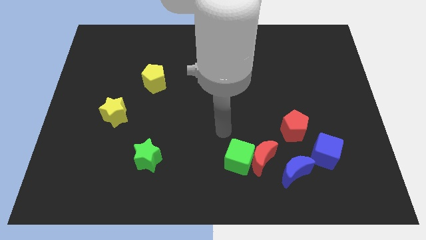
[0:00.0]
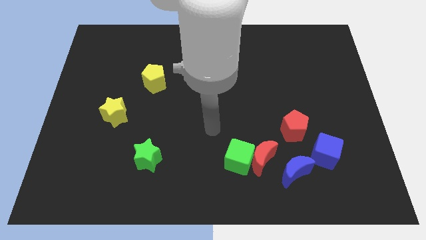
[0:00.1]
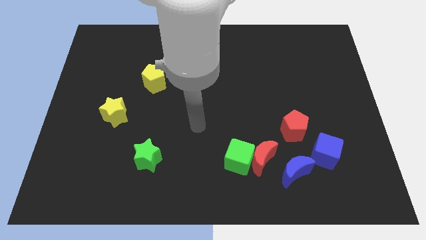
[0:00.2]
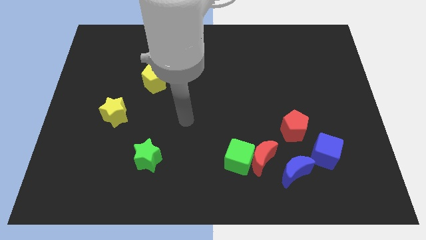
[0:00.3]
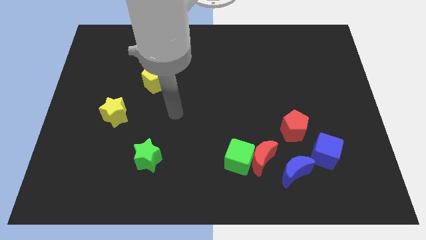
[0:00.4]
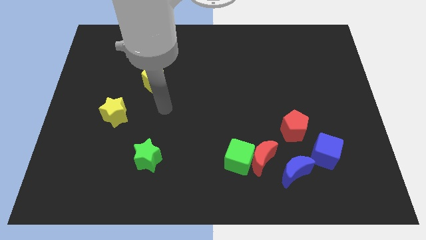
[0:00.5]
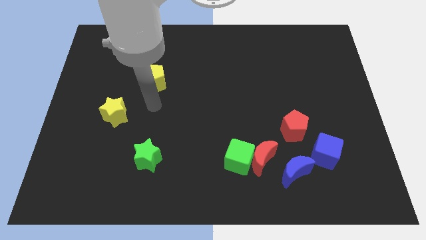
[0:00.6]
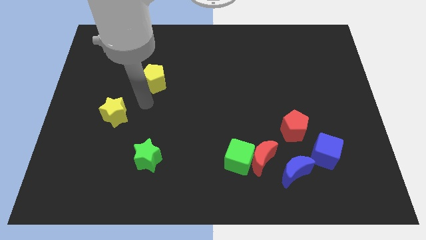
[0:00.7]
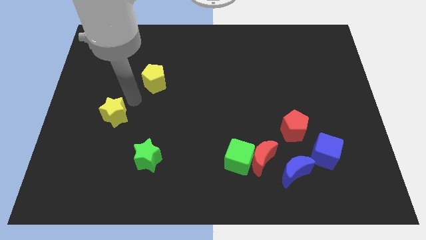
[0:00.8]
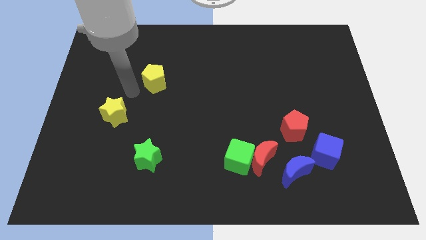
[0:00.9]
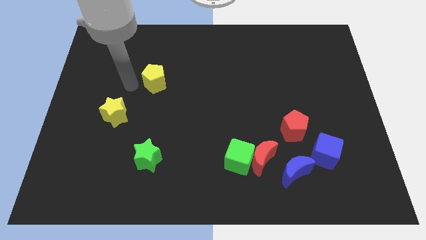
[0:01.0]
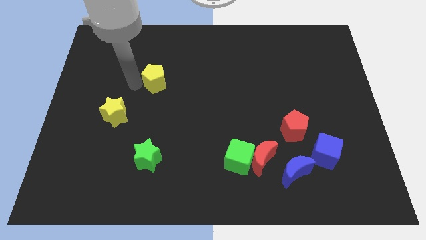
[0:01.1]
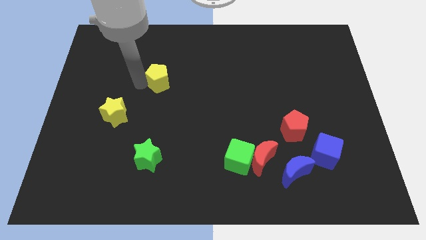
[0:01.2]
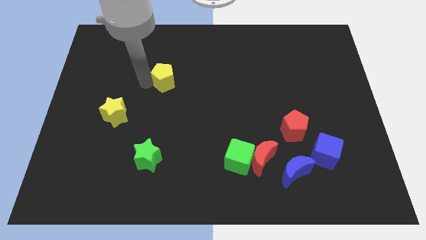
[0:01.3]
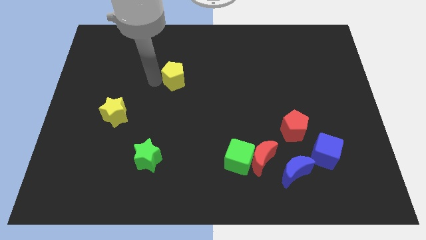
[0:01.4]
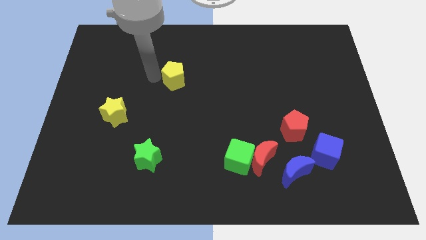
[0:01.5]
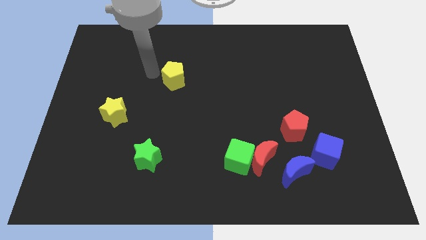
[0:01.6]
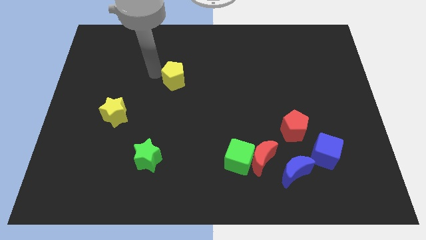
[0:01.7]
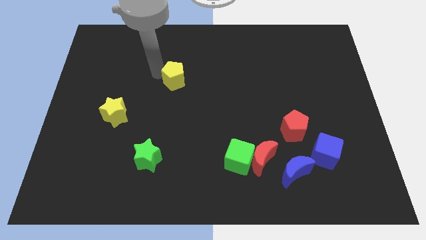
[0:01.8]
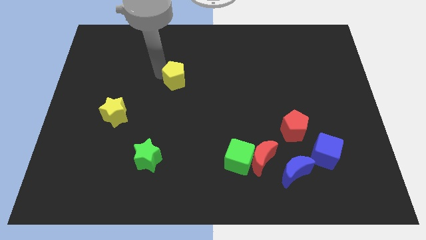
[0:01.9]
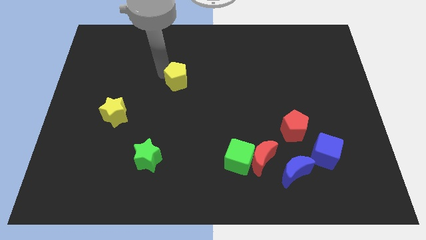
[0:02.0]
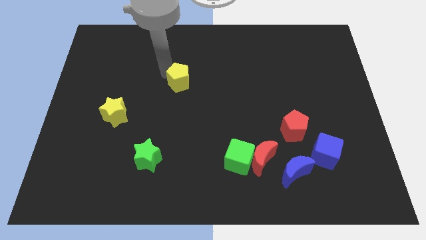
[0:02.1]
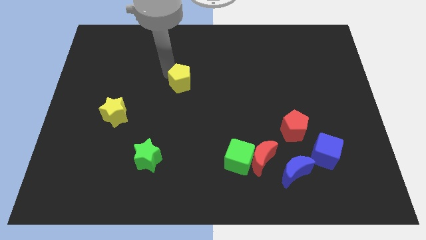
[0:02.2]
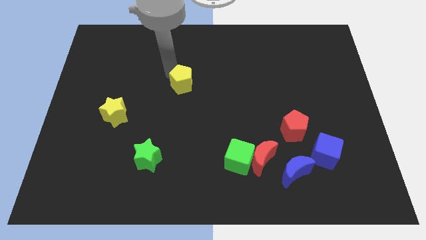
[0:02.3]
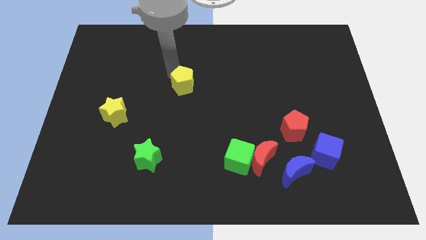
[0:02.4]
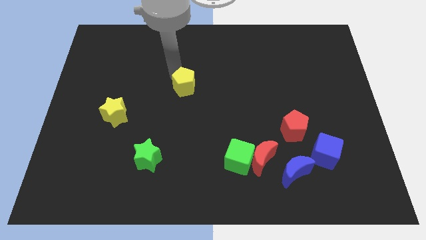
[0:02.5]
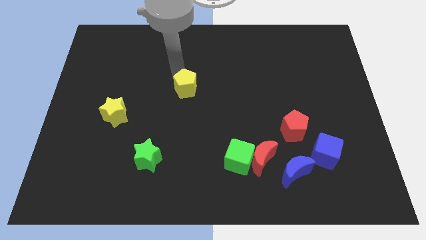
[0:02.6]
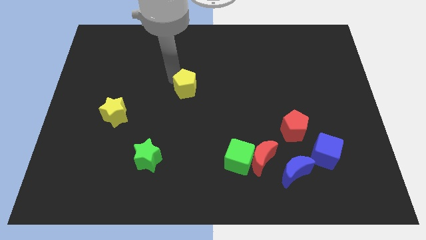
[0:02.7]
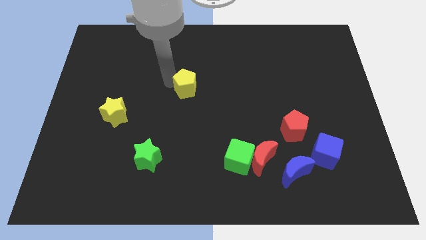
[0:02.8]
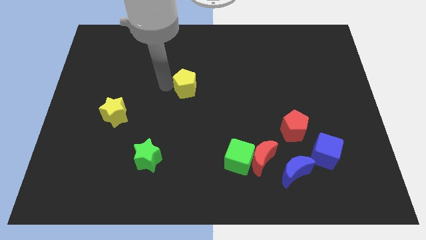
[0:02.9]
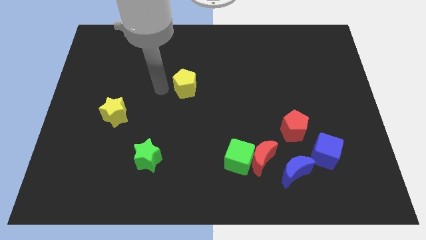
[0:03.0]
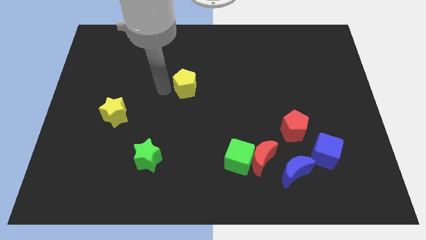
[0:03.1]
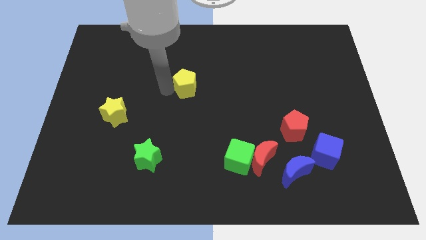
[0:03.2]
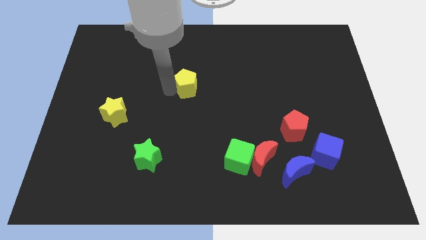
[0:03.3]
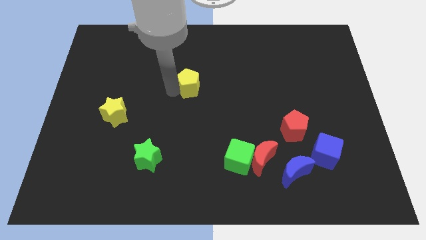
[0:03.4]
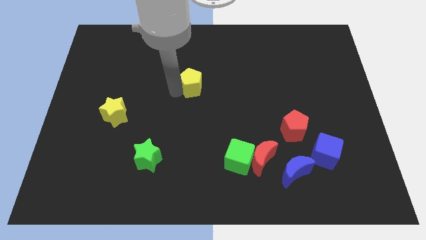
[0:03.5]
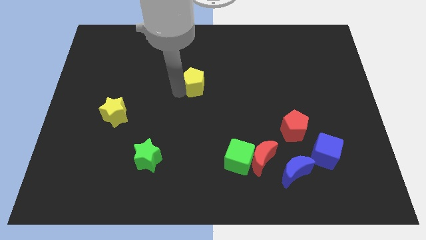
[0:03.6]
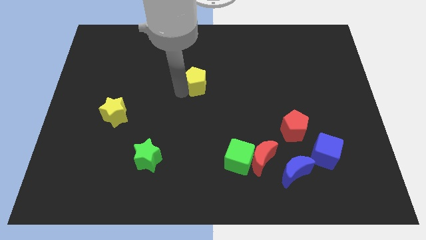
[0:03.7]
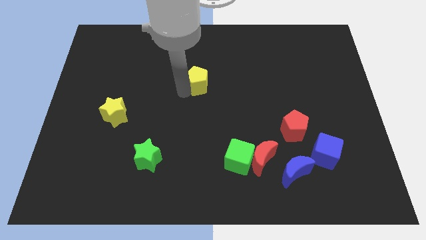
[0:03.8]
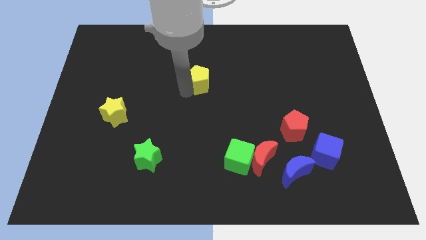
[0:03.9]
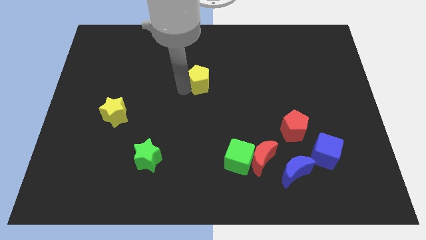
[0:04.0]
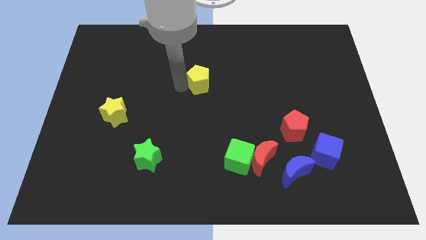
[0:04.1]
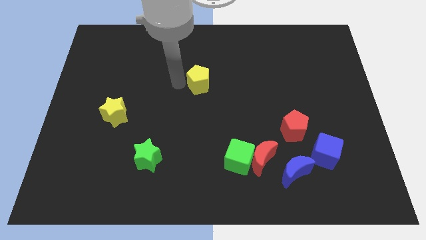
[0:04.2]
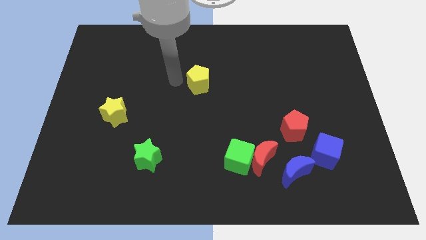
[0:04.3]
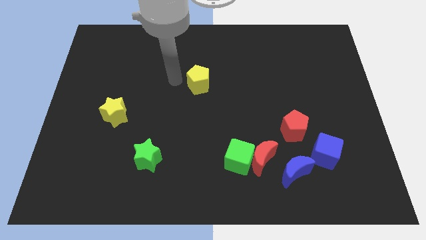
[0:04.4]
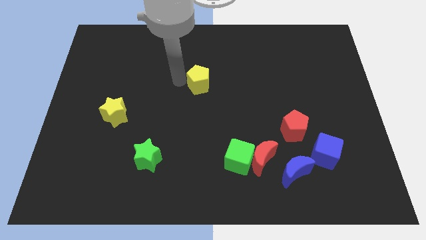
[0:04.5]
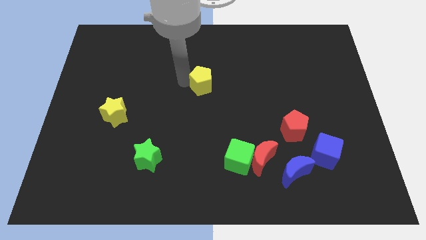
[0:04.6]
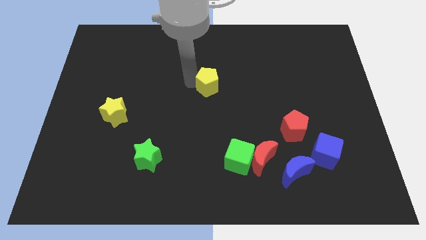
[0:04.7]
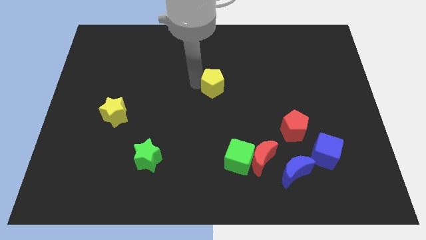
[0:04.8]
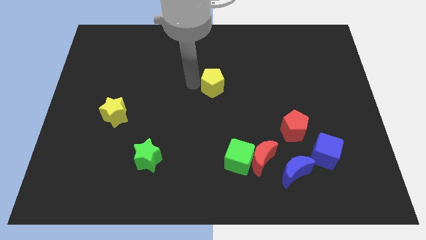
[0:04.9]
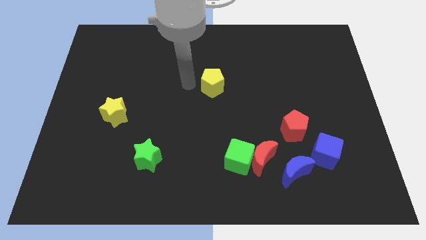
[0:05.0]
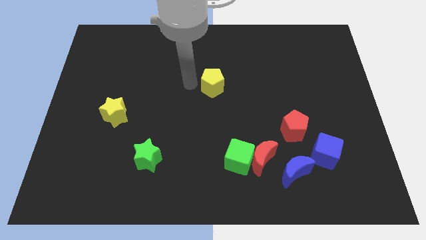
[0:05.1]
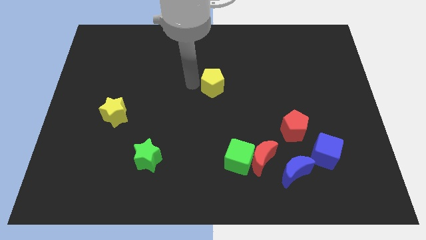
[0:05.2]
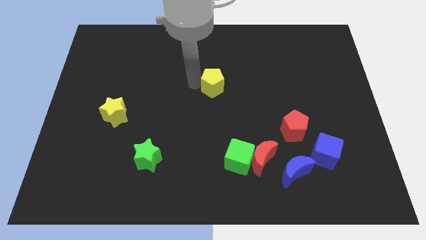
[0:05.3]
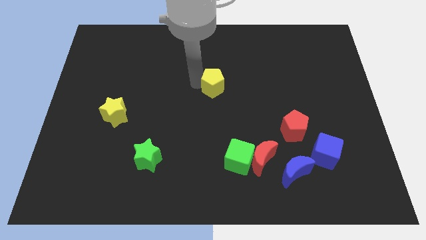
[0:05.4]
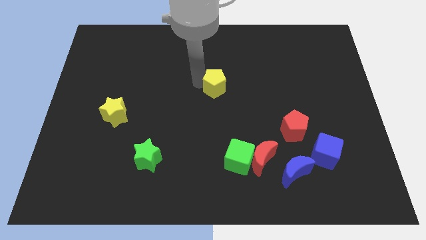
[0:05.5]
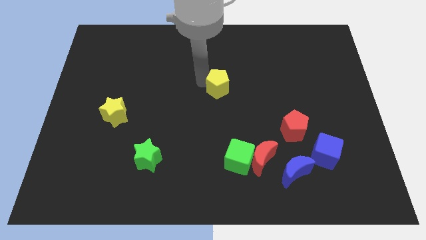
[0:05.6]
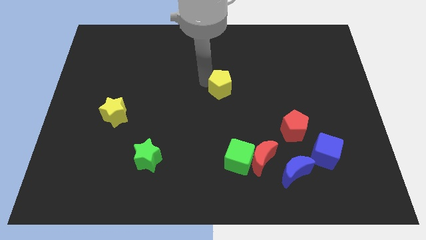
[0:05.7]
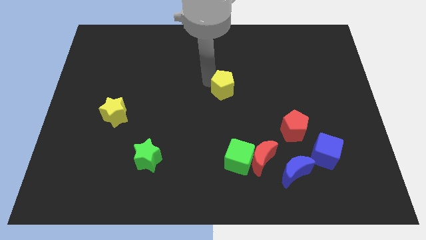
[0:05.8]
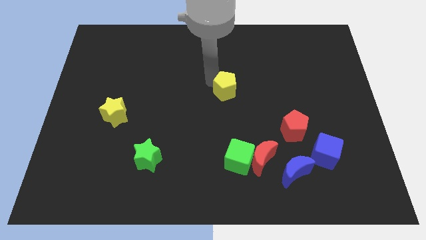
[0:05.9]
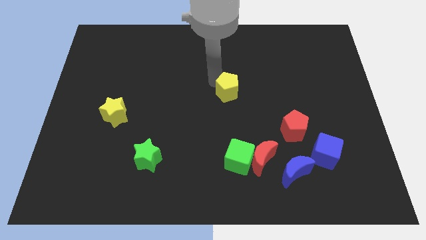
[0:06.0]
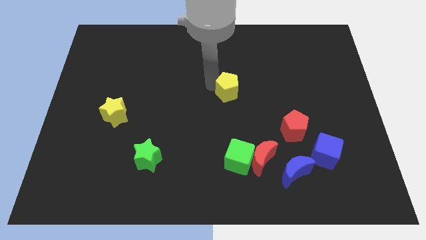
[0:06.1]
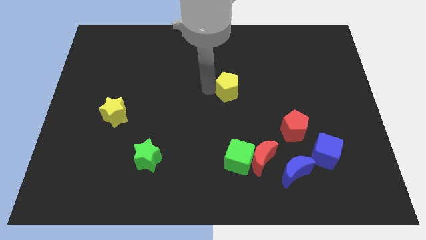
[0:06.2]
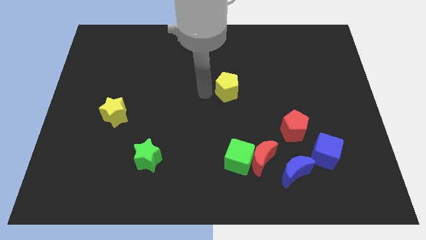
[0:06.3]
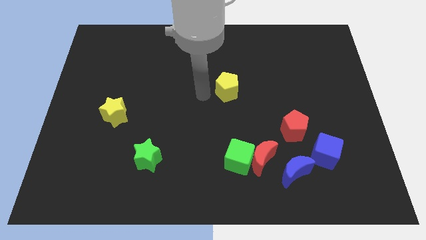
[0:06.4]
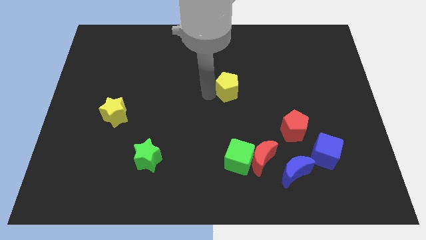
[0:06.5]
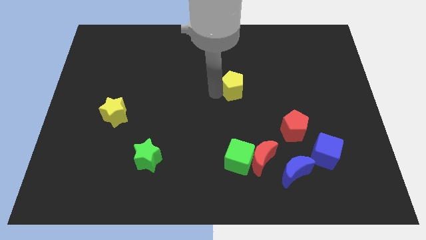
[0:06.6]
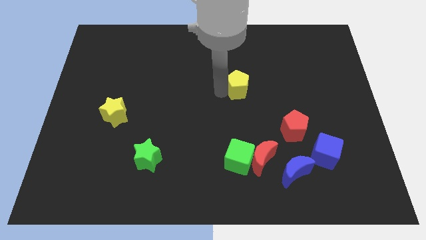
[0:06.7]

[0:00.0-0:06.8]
move the yellow pentagon right

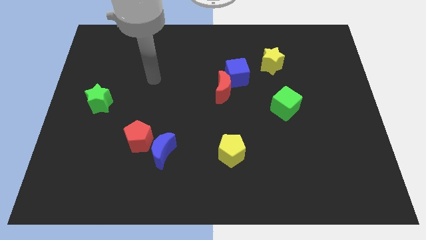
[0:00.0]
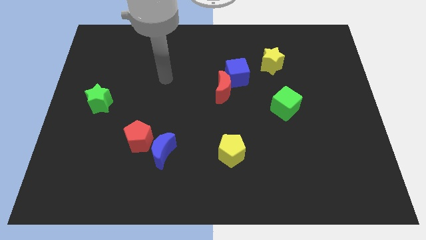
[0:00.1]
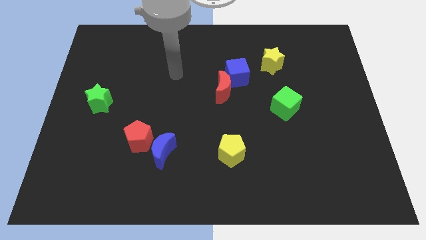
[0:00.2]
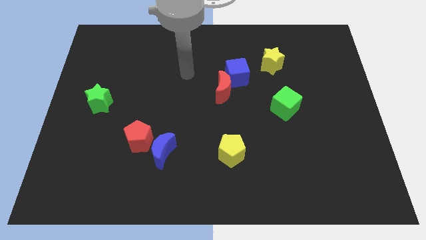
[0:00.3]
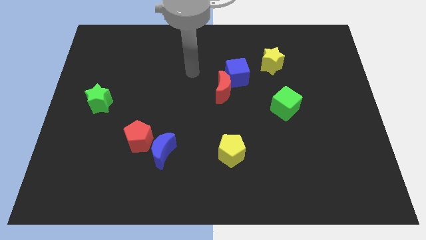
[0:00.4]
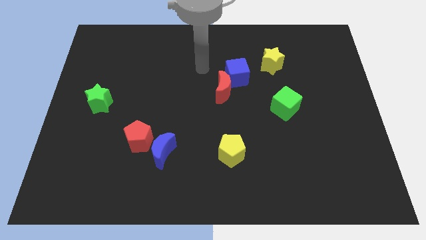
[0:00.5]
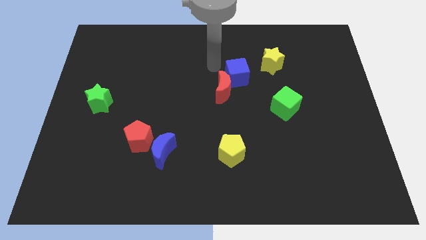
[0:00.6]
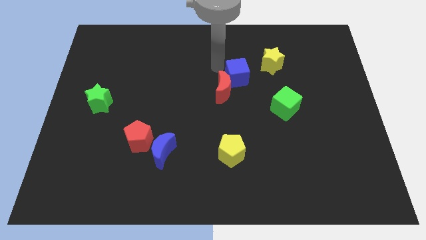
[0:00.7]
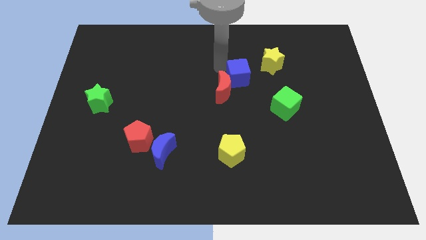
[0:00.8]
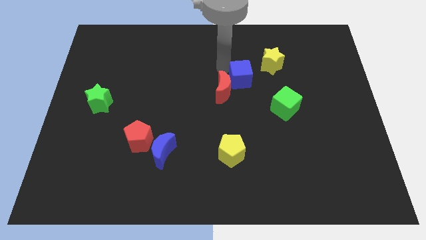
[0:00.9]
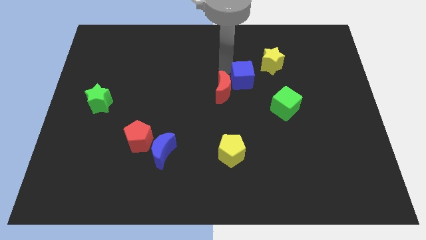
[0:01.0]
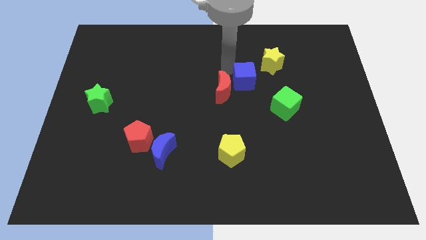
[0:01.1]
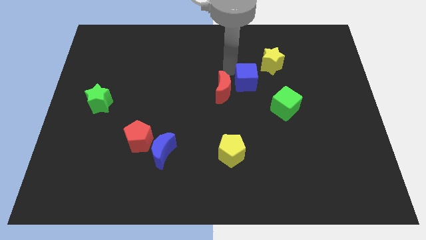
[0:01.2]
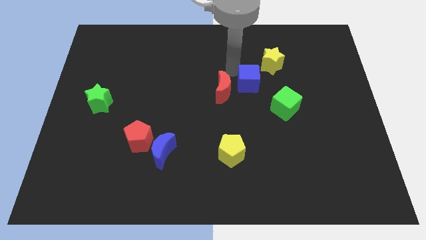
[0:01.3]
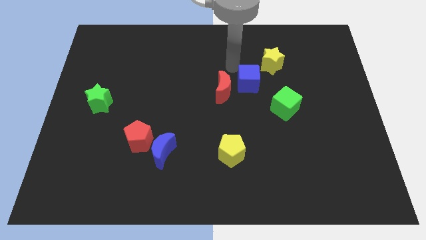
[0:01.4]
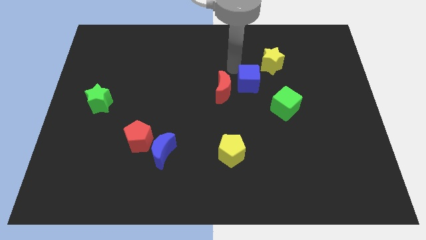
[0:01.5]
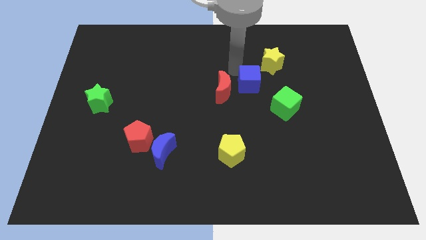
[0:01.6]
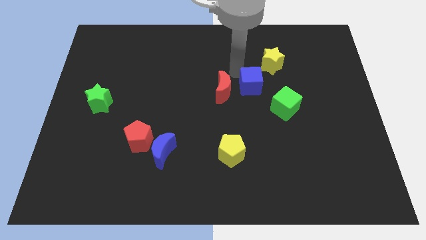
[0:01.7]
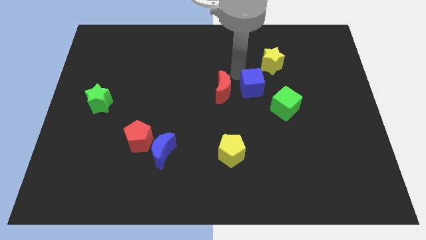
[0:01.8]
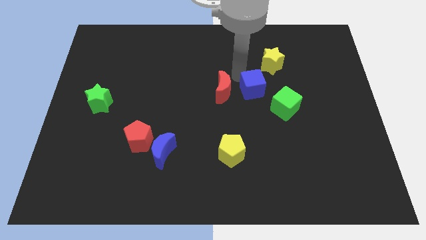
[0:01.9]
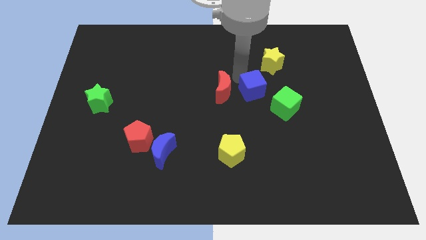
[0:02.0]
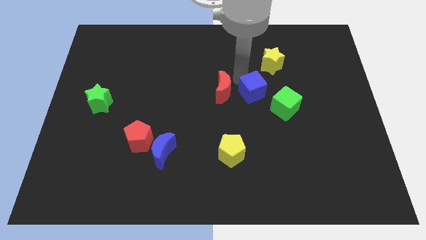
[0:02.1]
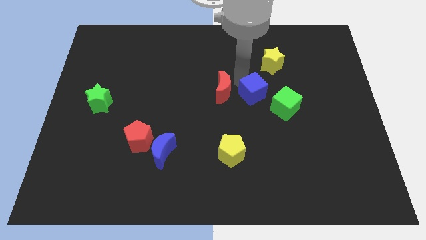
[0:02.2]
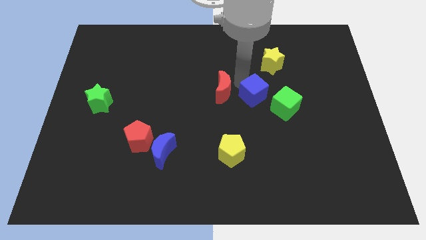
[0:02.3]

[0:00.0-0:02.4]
slide the blue cube a bit downwards and right diagonally
